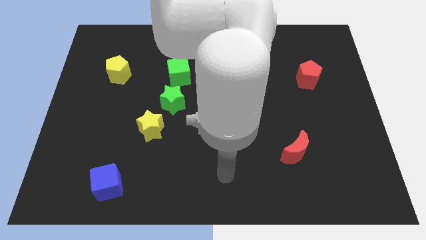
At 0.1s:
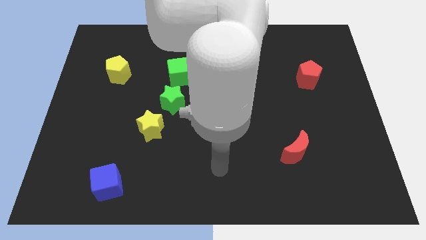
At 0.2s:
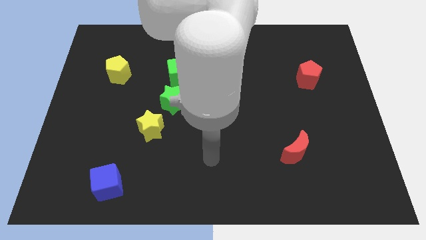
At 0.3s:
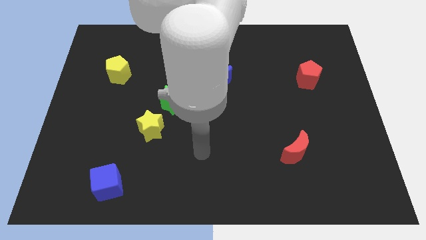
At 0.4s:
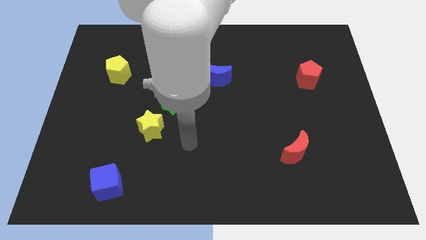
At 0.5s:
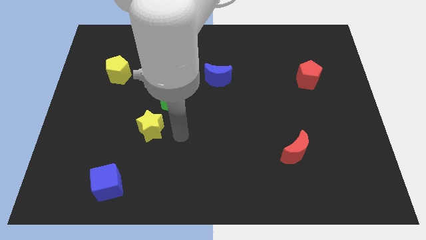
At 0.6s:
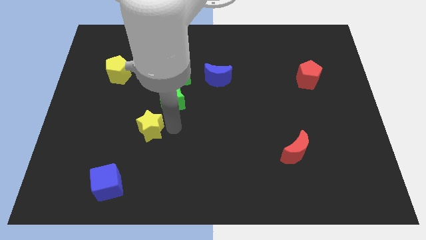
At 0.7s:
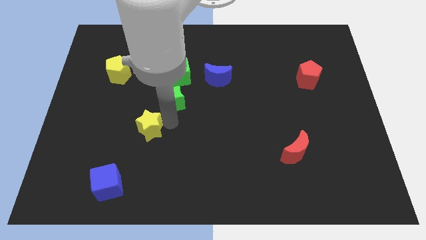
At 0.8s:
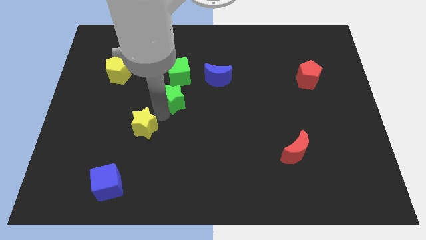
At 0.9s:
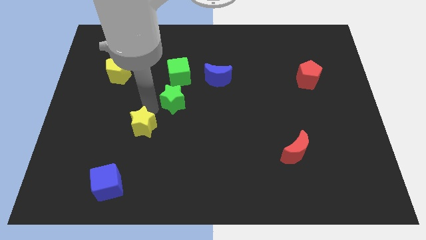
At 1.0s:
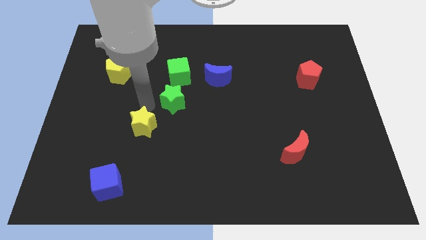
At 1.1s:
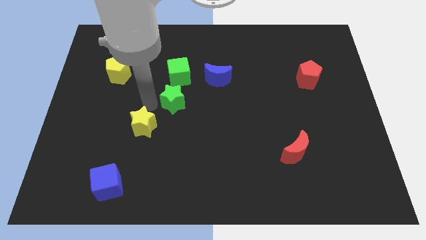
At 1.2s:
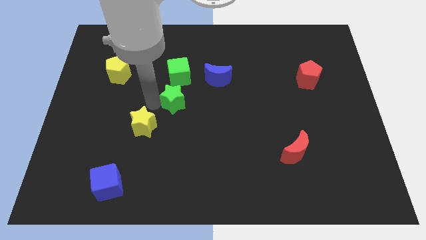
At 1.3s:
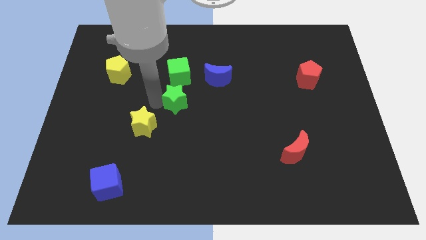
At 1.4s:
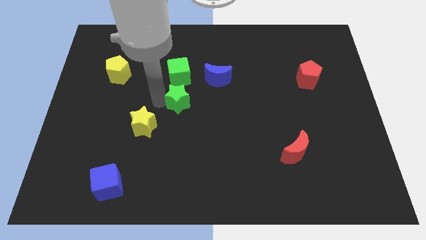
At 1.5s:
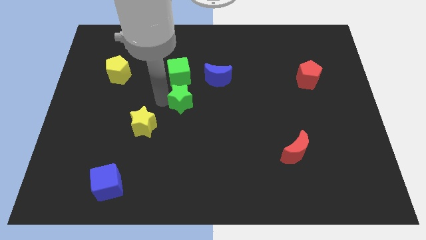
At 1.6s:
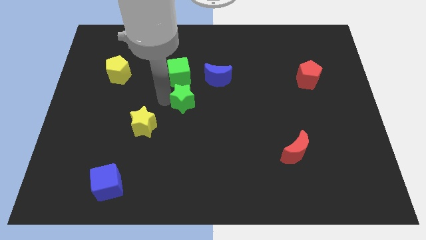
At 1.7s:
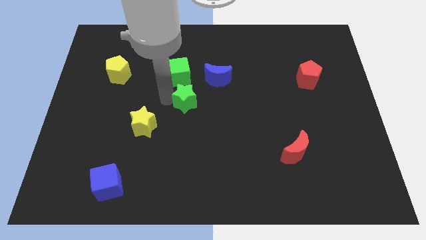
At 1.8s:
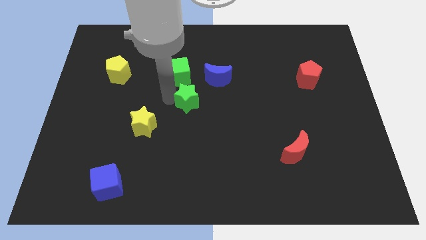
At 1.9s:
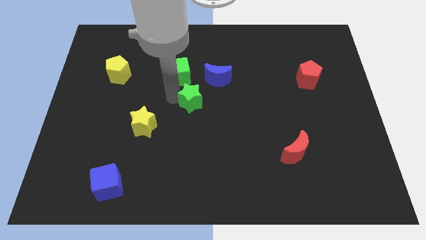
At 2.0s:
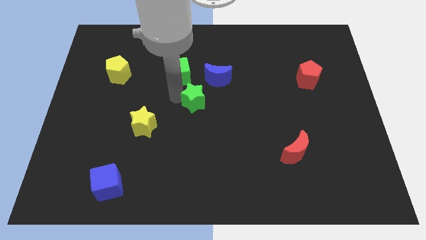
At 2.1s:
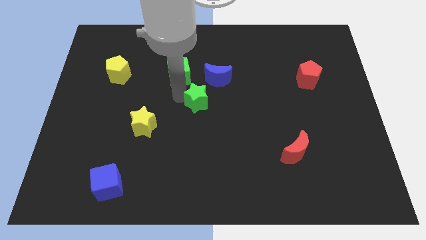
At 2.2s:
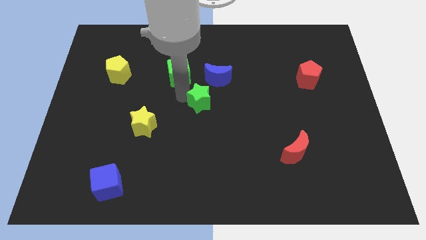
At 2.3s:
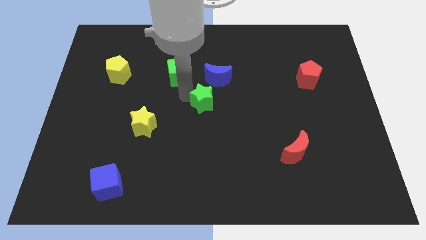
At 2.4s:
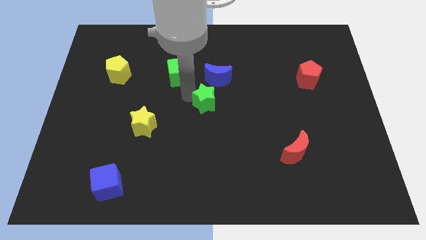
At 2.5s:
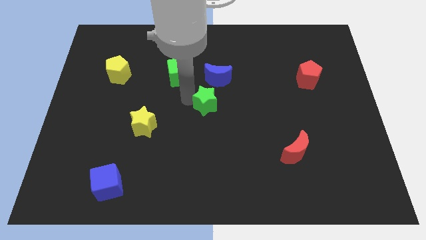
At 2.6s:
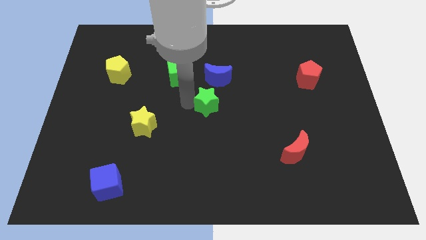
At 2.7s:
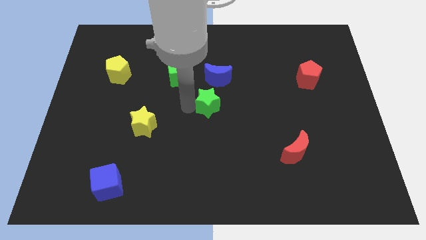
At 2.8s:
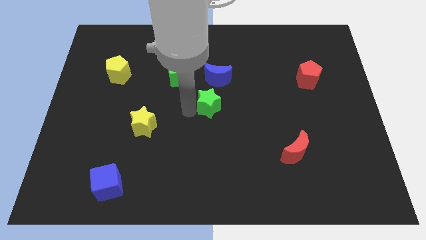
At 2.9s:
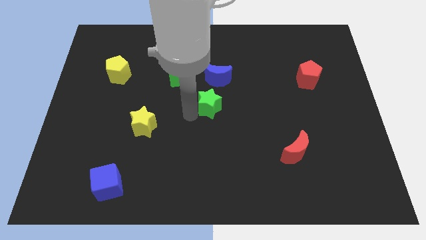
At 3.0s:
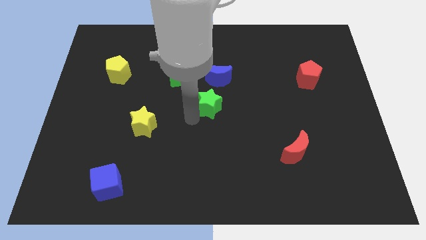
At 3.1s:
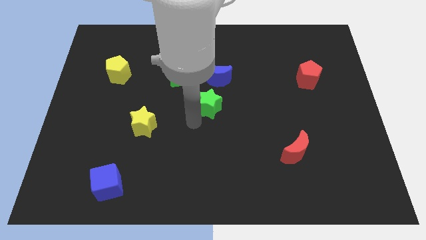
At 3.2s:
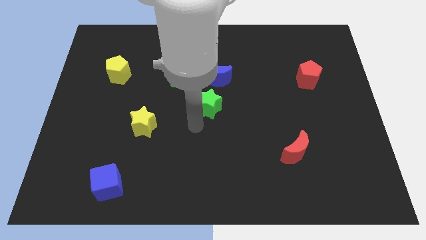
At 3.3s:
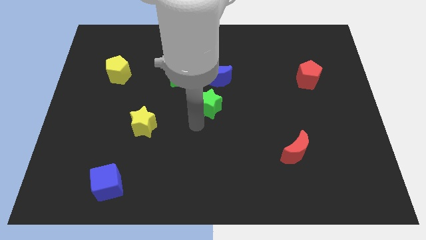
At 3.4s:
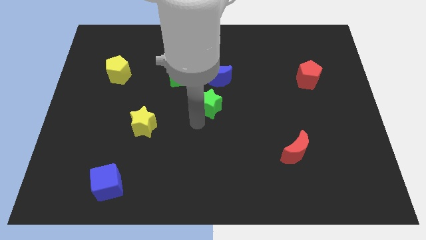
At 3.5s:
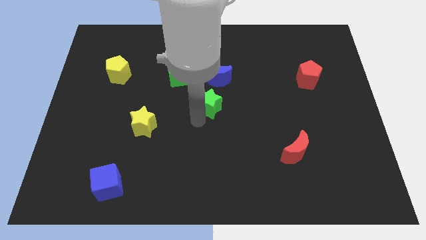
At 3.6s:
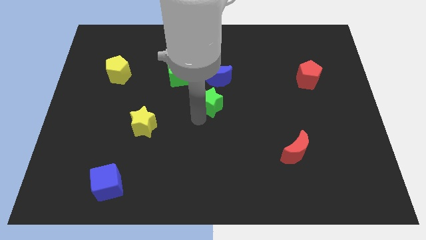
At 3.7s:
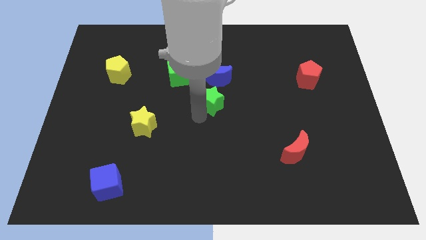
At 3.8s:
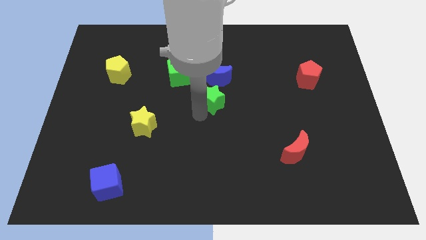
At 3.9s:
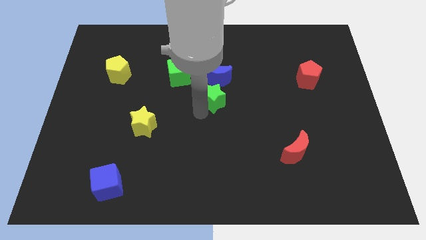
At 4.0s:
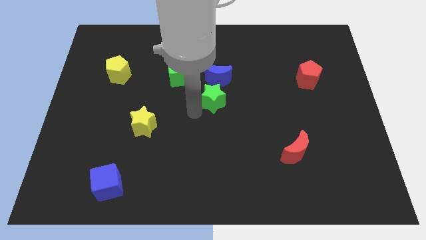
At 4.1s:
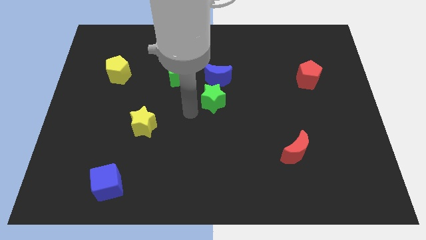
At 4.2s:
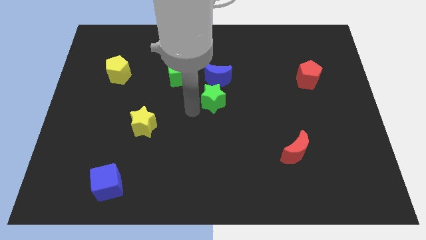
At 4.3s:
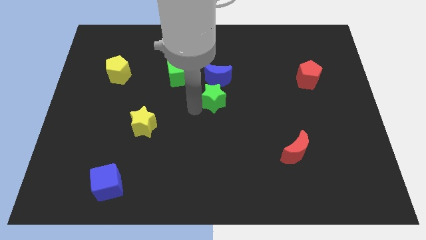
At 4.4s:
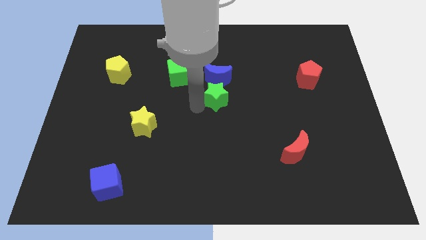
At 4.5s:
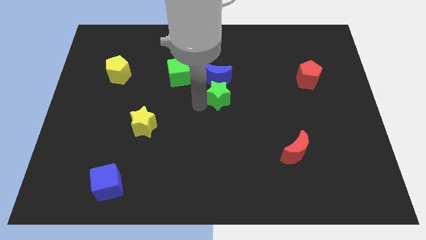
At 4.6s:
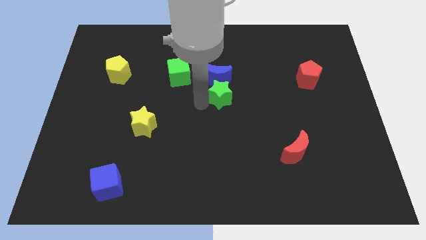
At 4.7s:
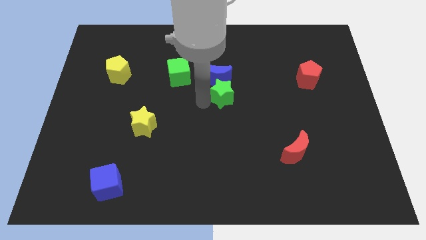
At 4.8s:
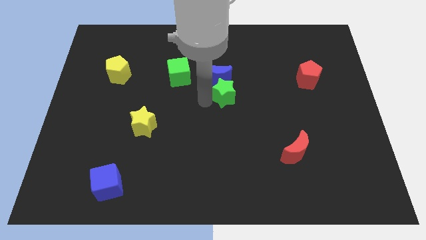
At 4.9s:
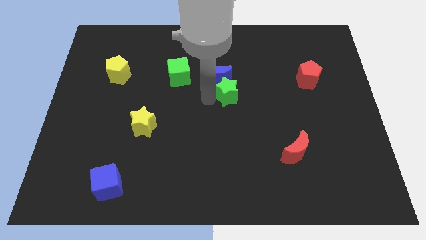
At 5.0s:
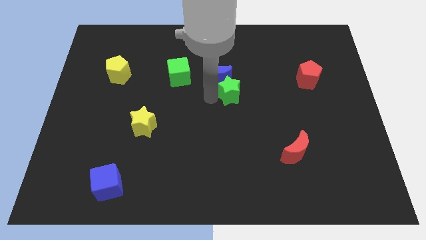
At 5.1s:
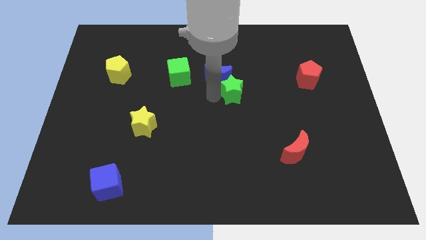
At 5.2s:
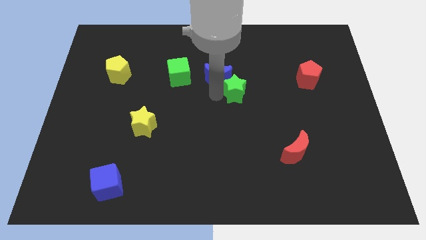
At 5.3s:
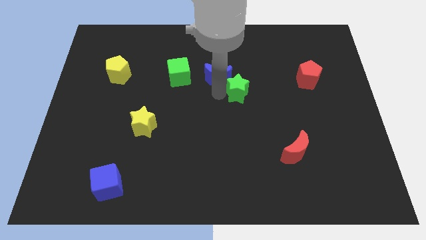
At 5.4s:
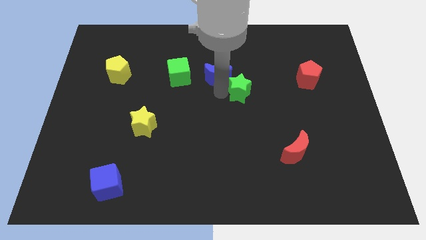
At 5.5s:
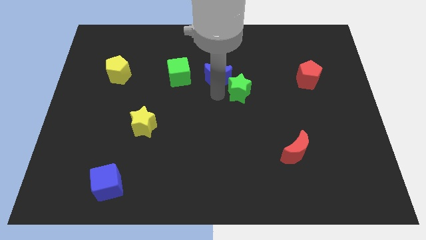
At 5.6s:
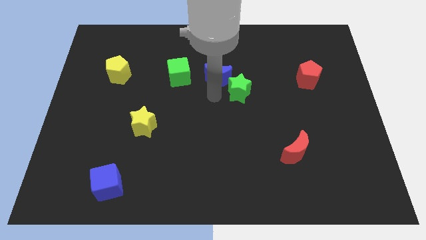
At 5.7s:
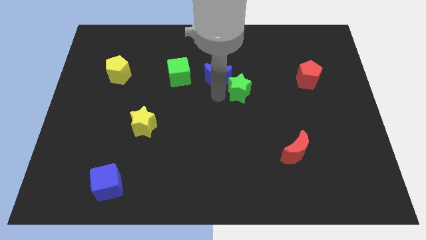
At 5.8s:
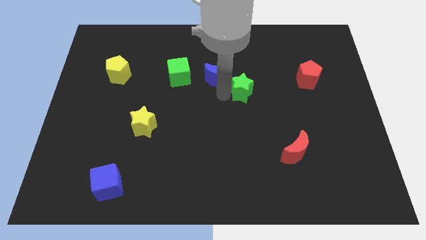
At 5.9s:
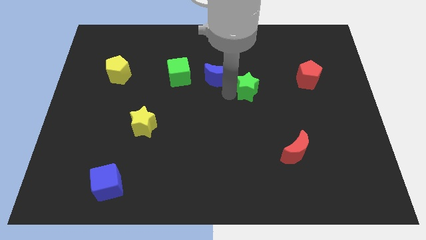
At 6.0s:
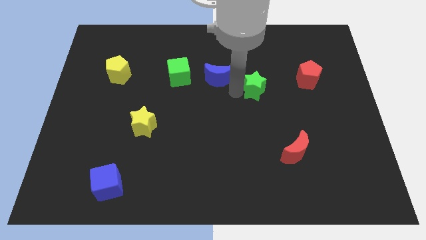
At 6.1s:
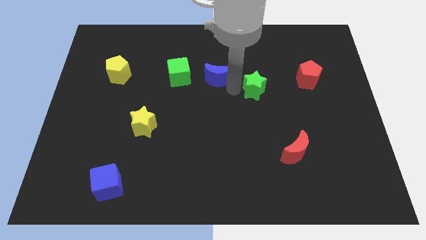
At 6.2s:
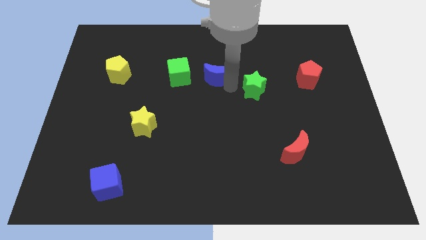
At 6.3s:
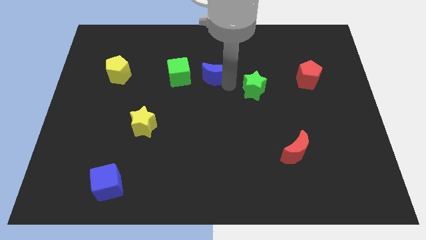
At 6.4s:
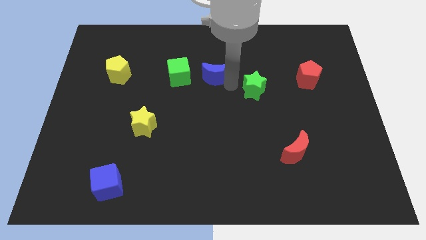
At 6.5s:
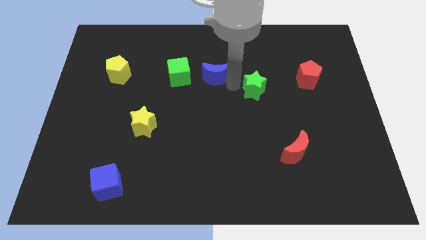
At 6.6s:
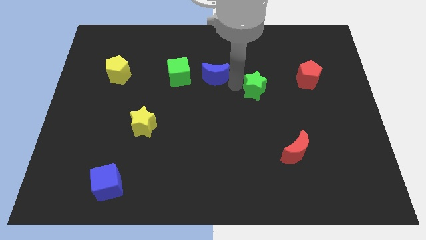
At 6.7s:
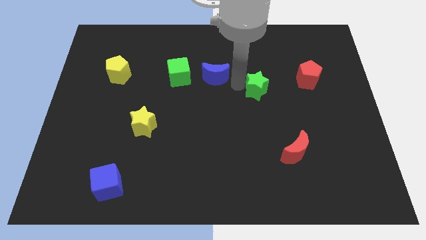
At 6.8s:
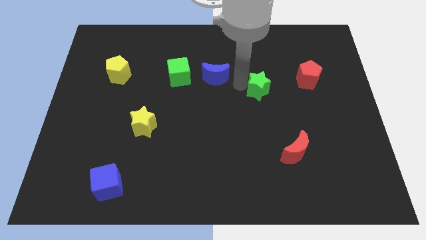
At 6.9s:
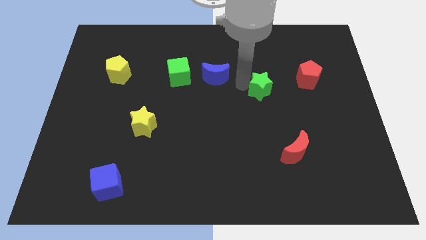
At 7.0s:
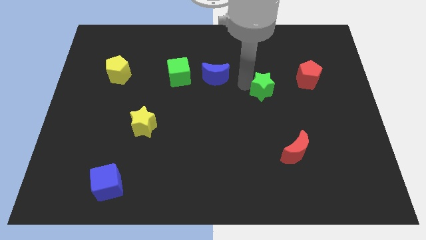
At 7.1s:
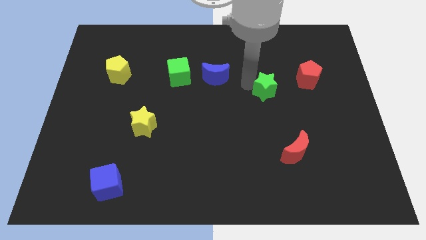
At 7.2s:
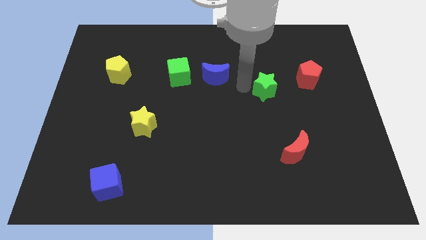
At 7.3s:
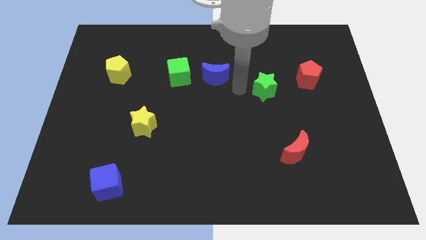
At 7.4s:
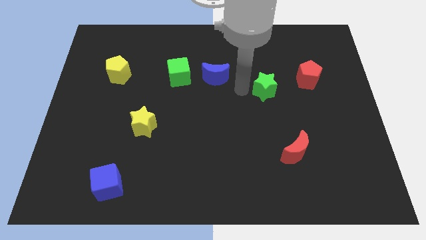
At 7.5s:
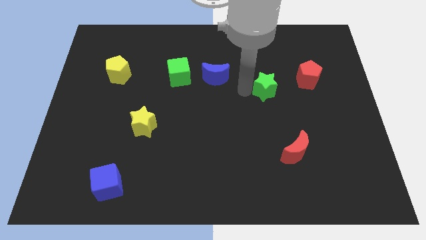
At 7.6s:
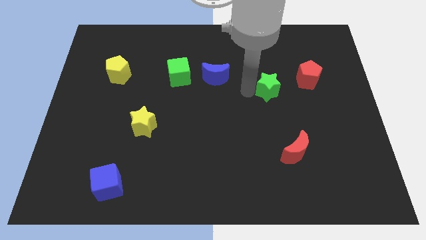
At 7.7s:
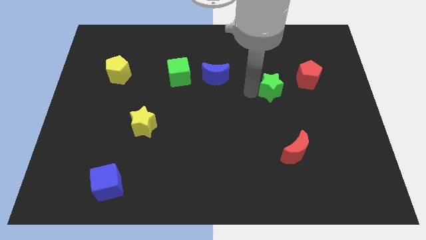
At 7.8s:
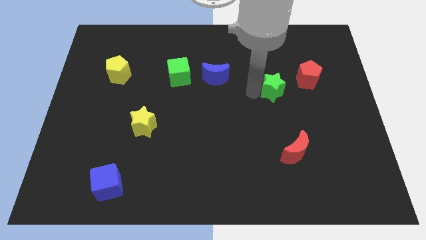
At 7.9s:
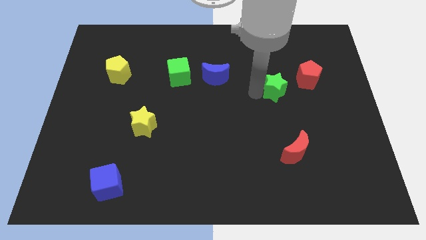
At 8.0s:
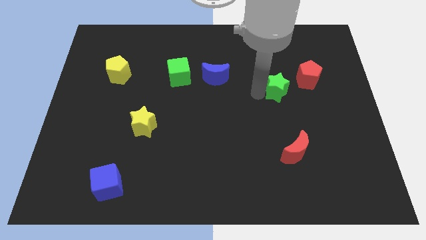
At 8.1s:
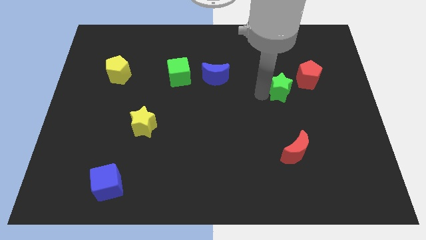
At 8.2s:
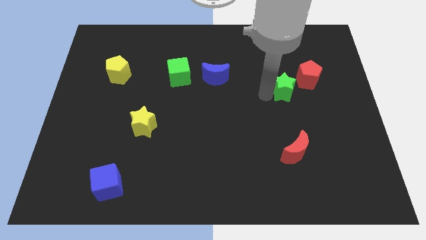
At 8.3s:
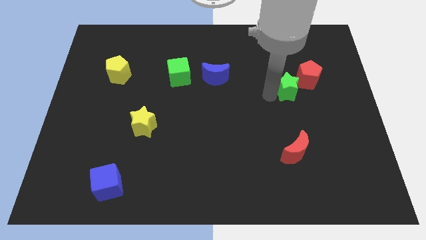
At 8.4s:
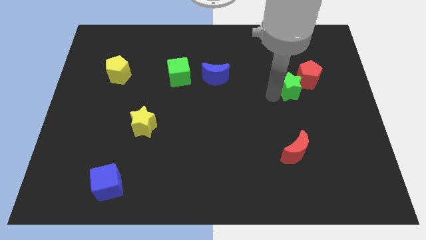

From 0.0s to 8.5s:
slide the green star close to the red pentagon
